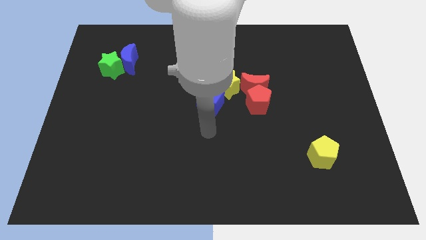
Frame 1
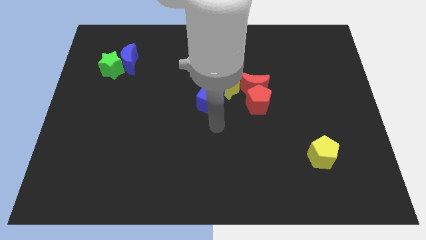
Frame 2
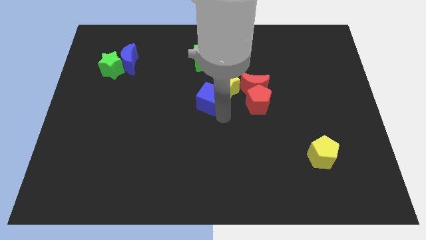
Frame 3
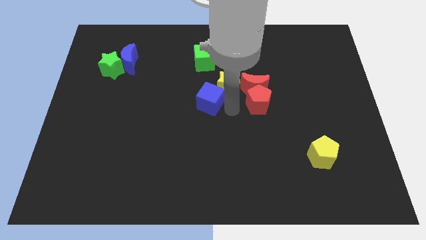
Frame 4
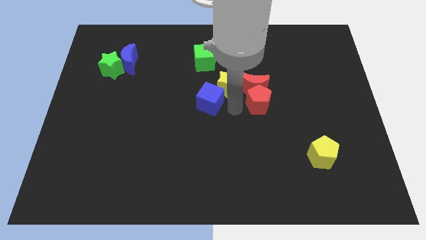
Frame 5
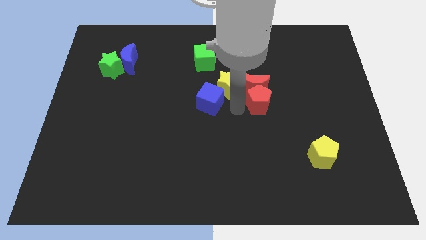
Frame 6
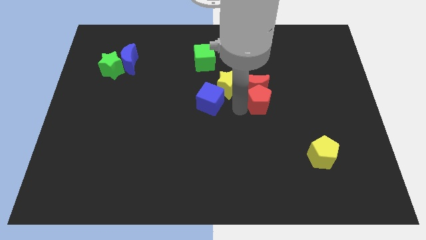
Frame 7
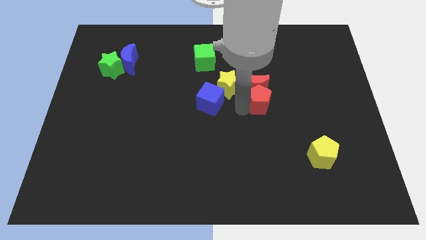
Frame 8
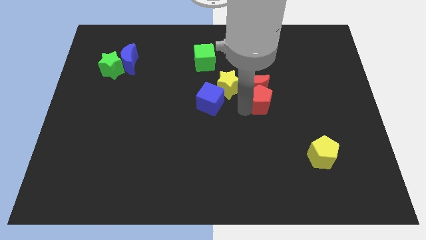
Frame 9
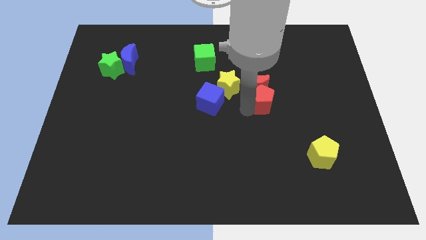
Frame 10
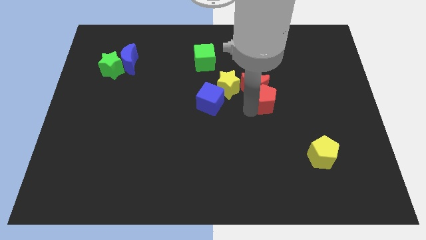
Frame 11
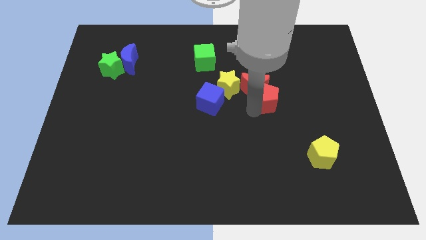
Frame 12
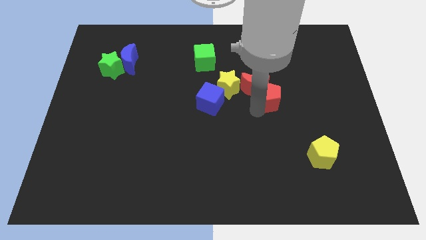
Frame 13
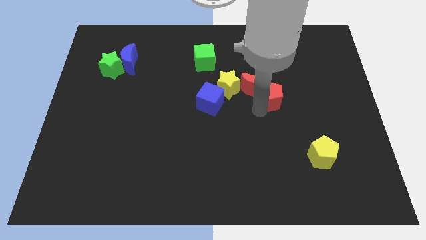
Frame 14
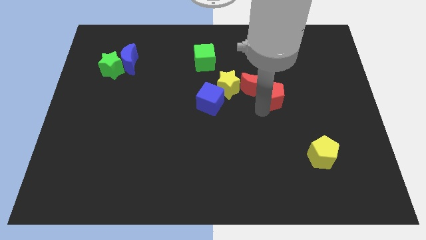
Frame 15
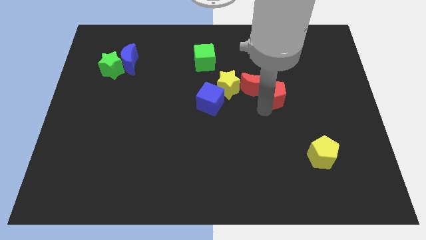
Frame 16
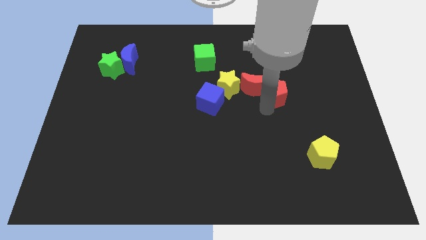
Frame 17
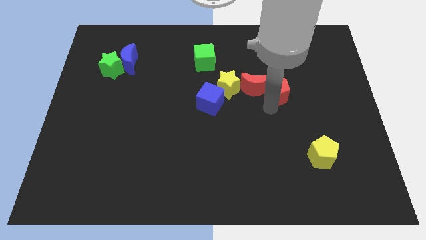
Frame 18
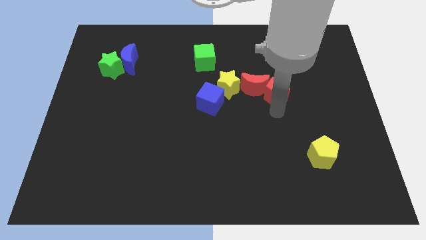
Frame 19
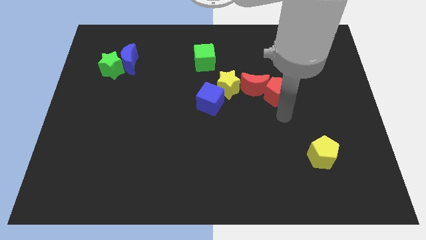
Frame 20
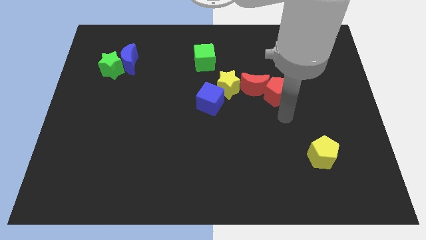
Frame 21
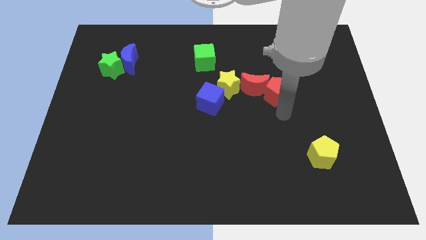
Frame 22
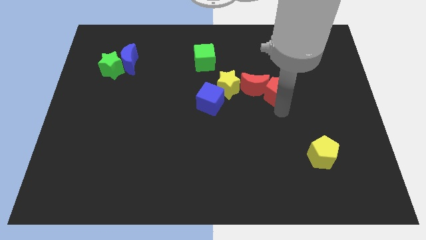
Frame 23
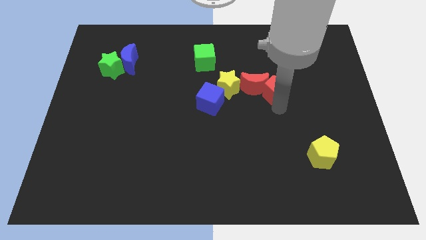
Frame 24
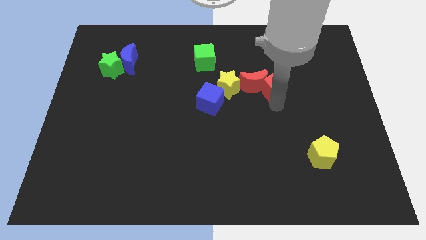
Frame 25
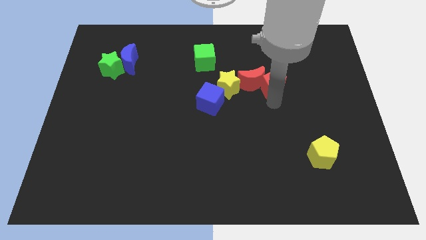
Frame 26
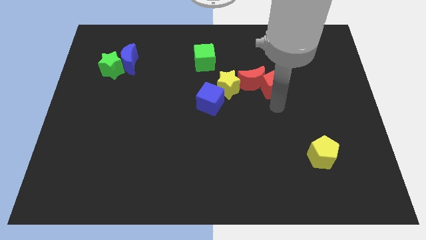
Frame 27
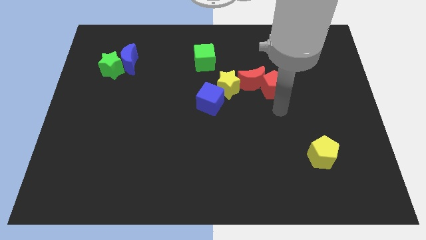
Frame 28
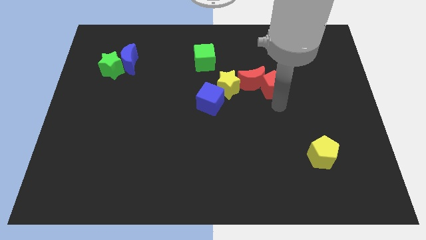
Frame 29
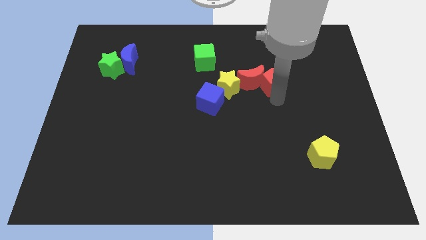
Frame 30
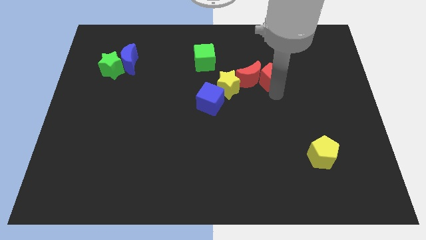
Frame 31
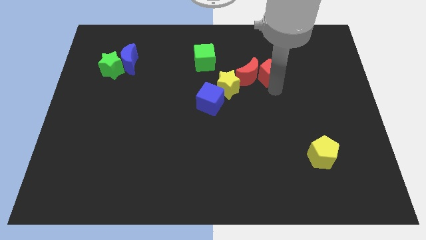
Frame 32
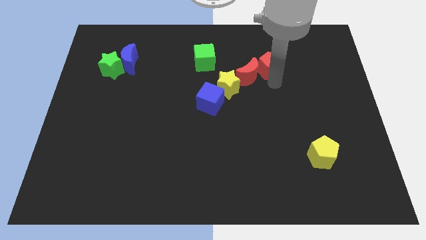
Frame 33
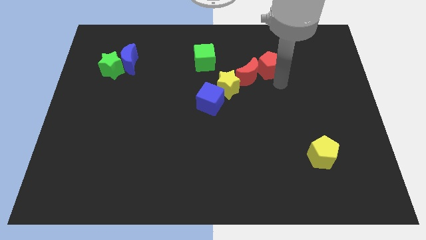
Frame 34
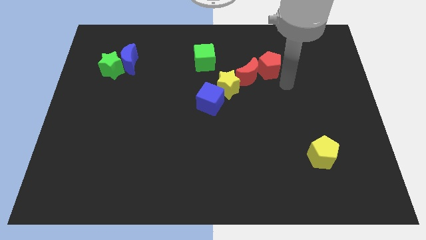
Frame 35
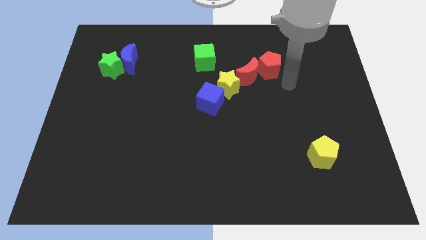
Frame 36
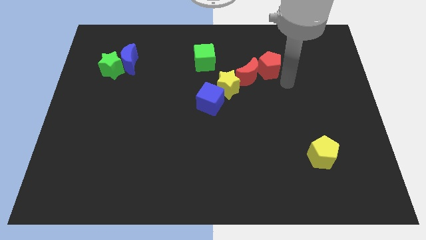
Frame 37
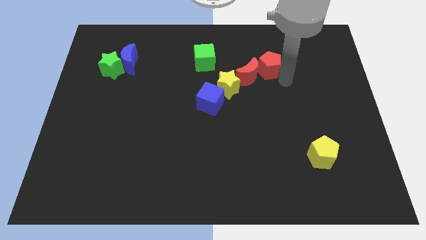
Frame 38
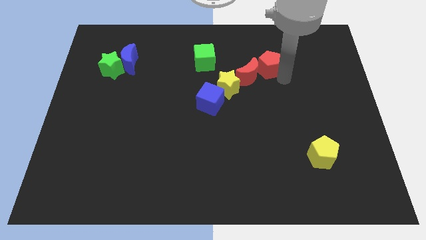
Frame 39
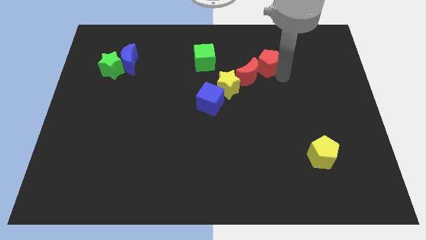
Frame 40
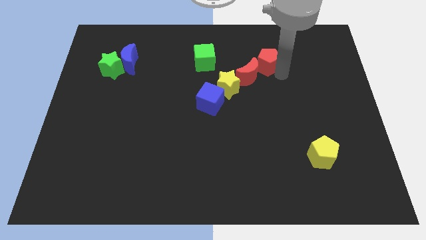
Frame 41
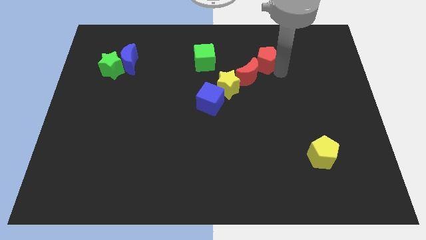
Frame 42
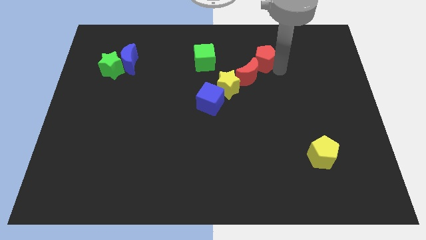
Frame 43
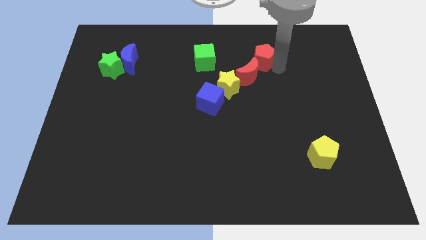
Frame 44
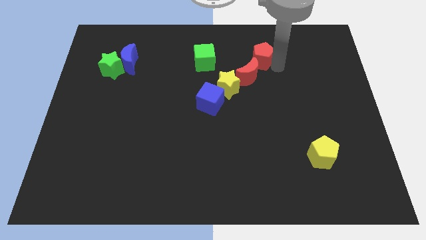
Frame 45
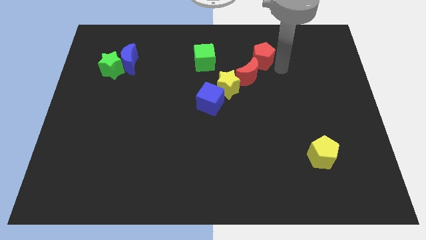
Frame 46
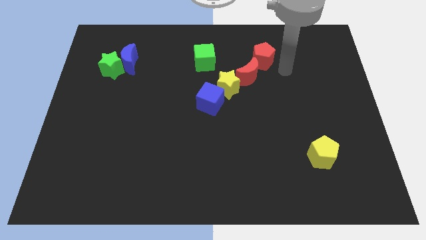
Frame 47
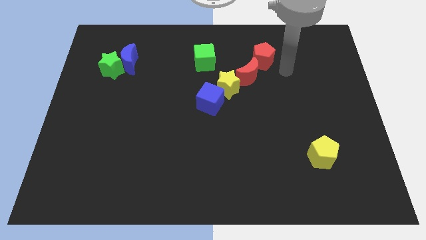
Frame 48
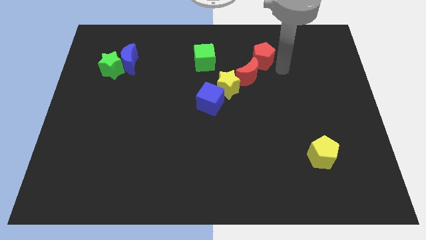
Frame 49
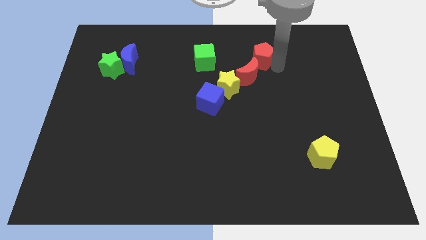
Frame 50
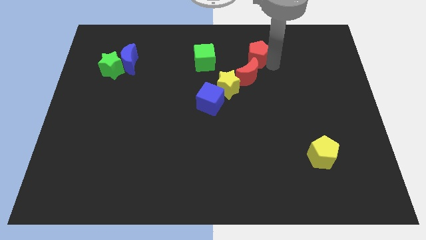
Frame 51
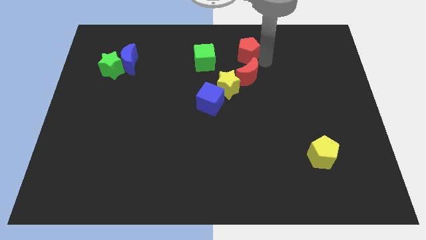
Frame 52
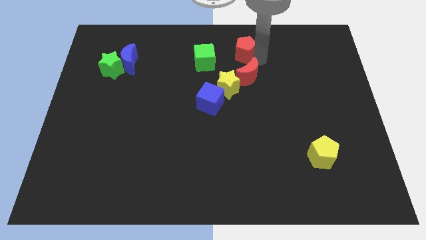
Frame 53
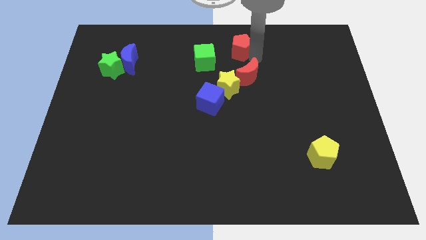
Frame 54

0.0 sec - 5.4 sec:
push the red pentagon to the top
